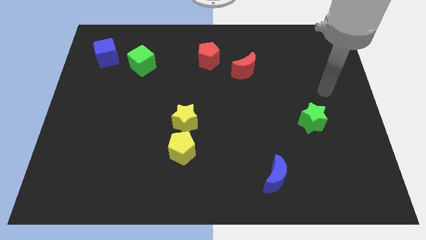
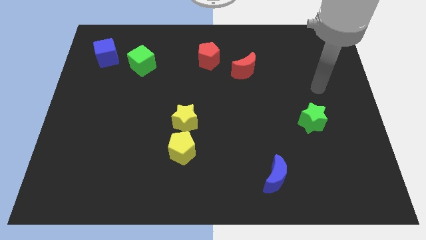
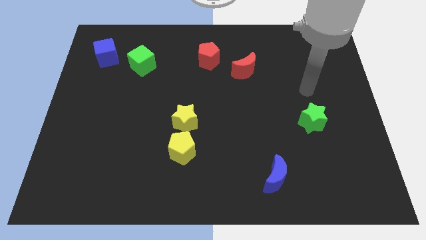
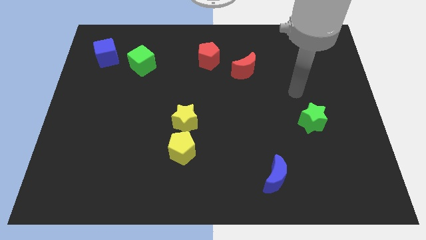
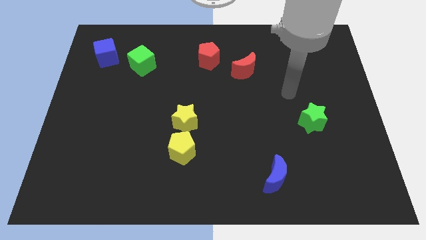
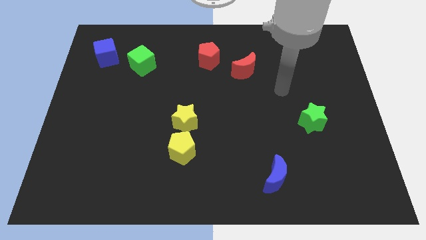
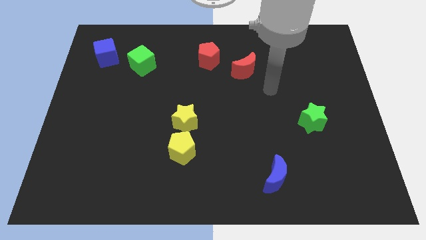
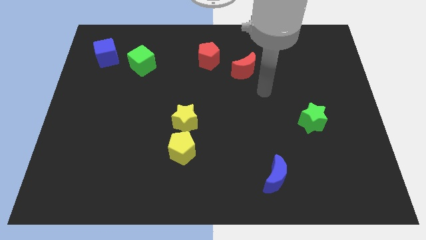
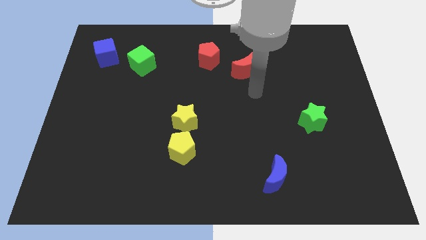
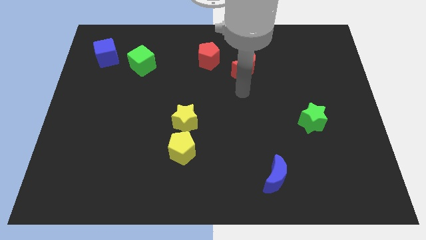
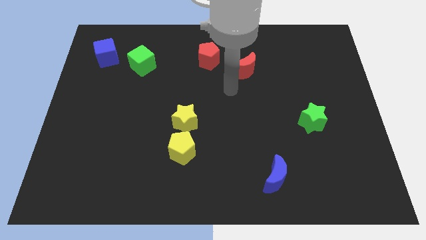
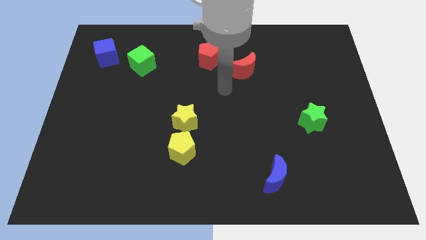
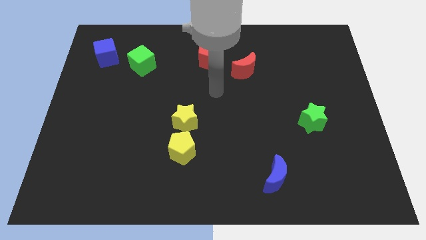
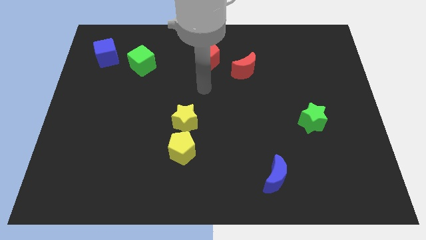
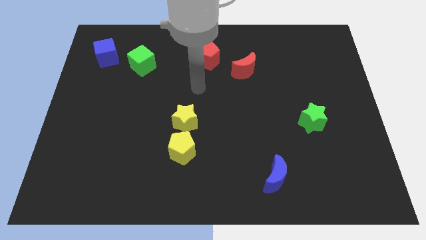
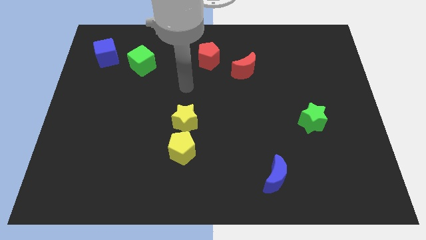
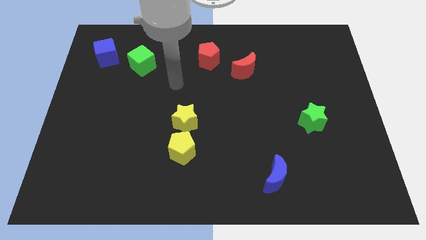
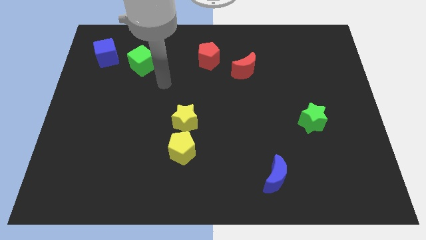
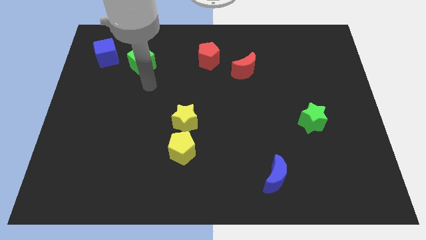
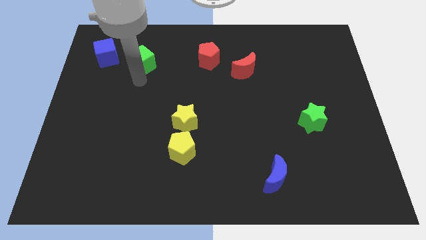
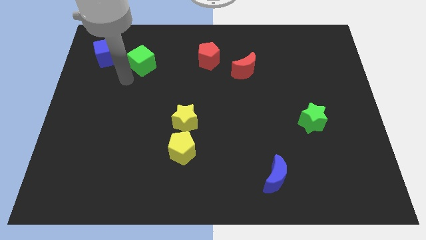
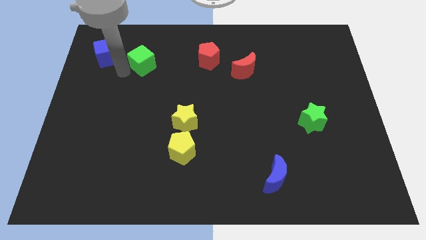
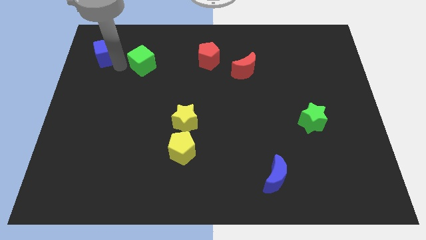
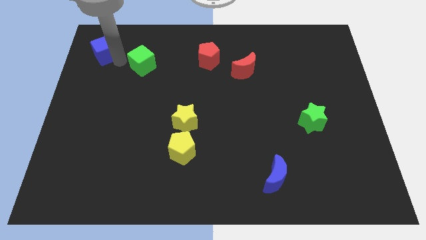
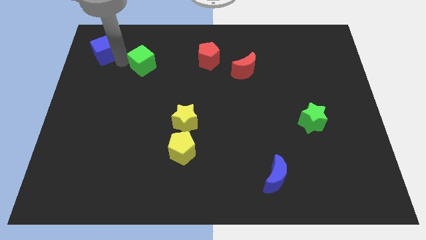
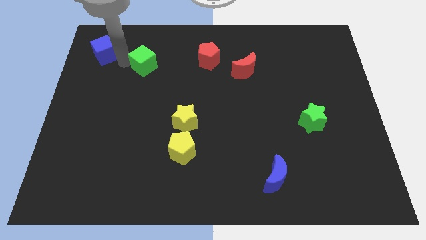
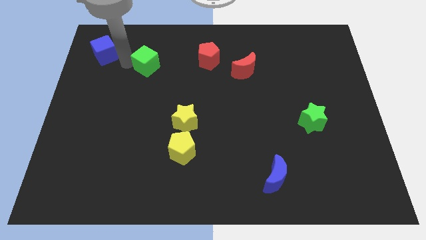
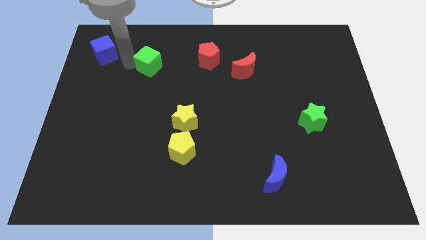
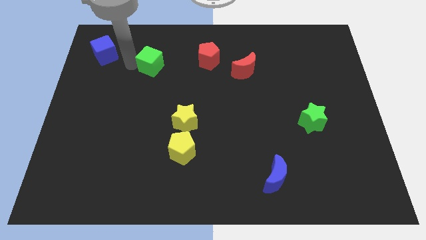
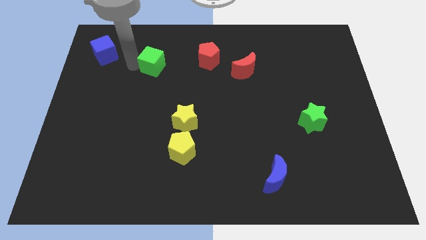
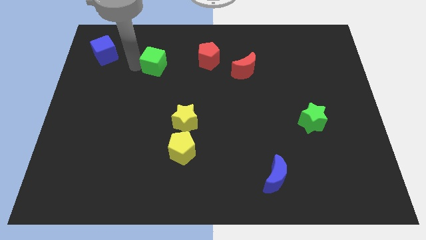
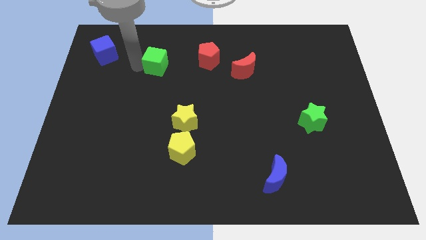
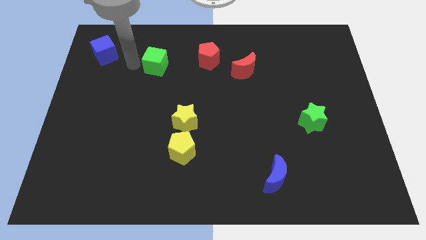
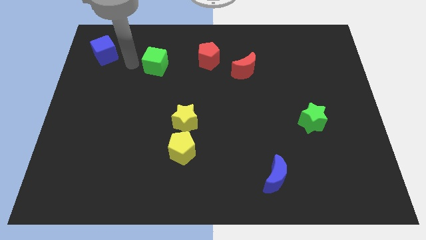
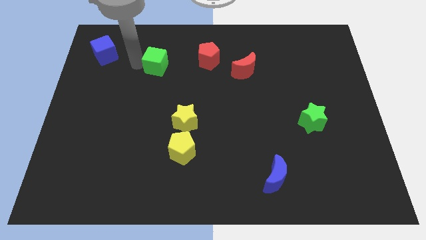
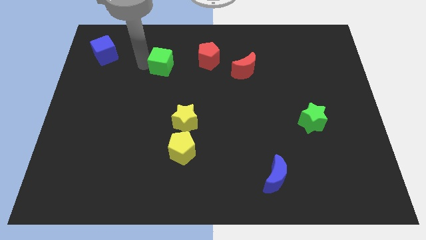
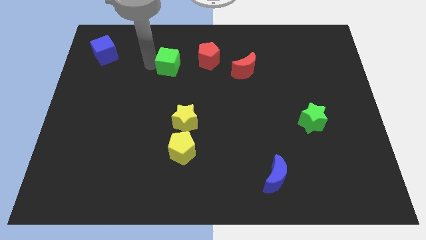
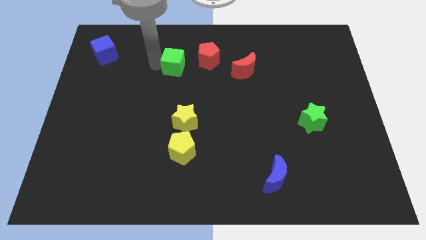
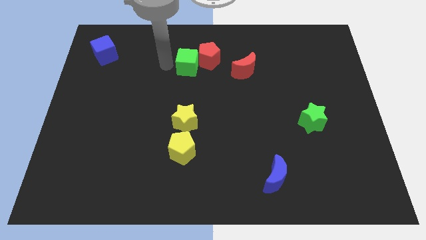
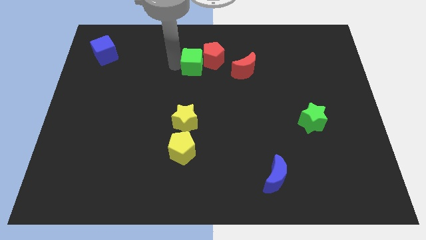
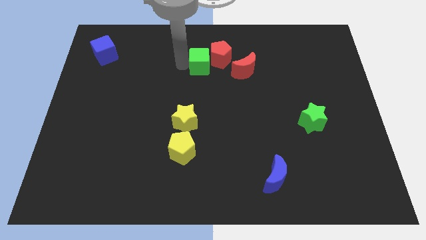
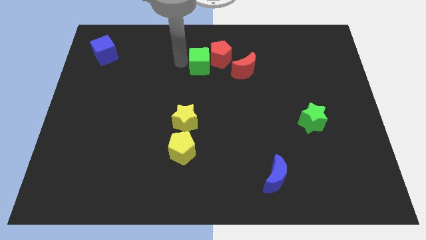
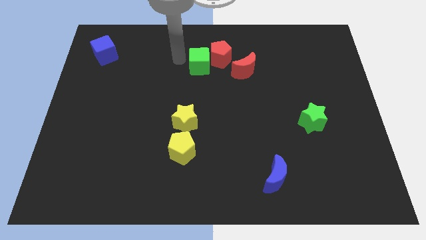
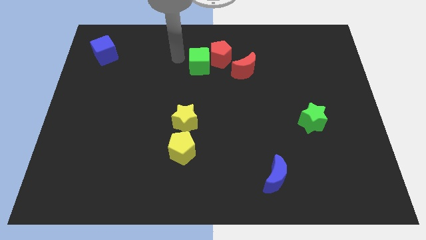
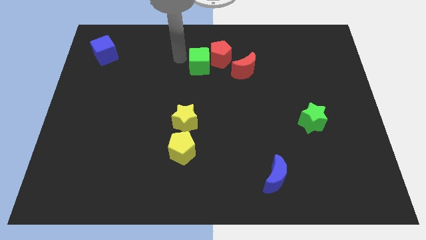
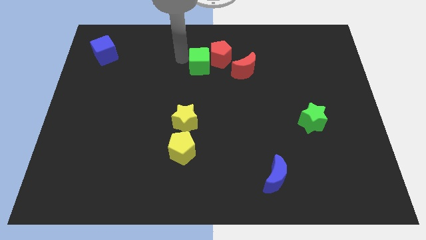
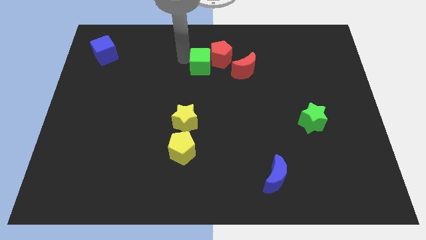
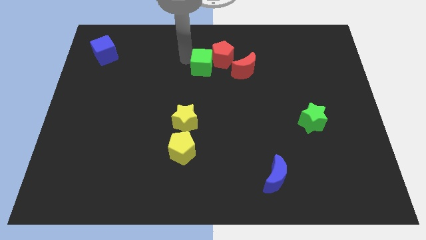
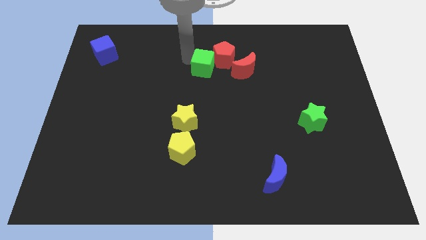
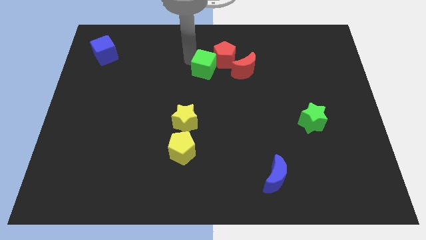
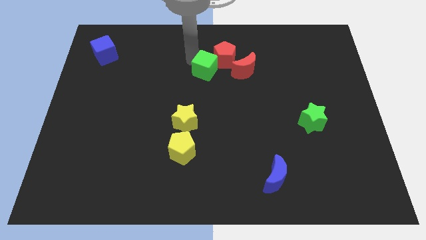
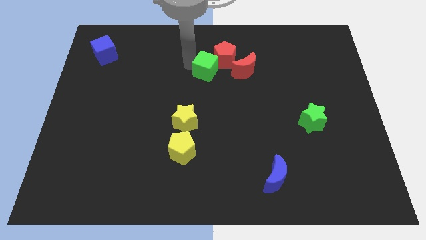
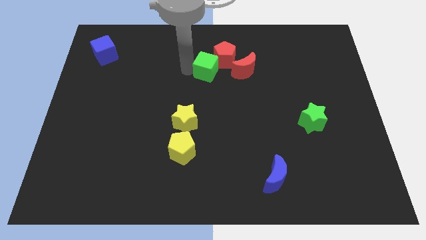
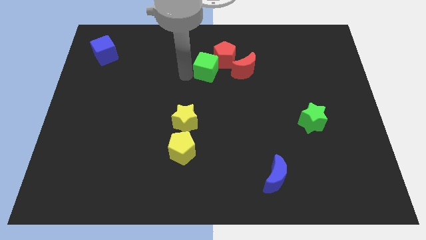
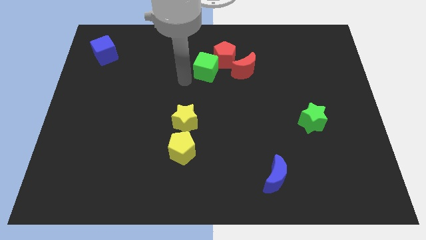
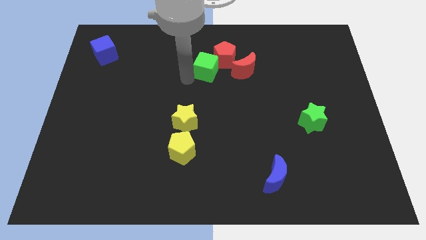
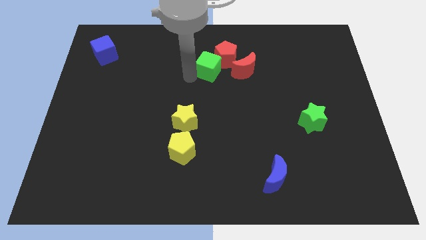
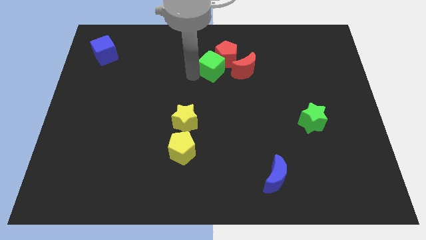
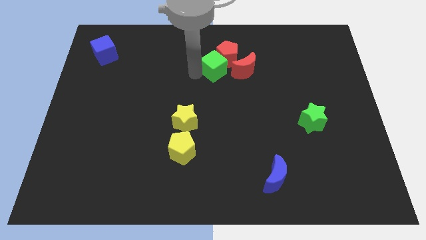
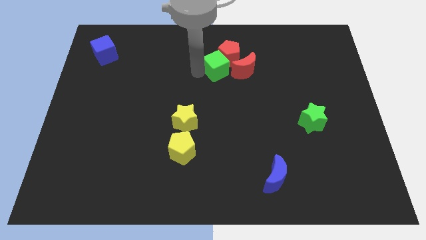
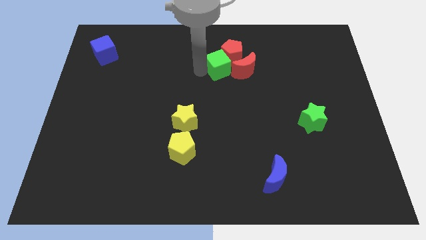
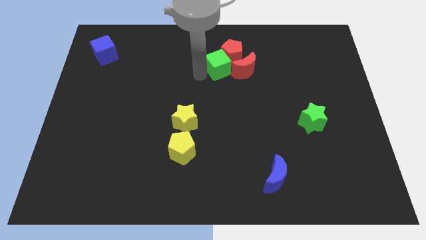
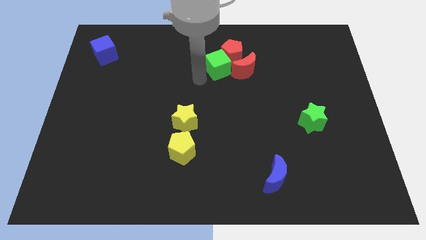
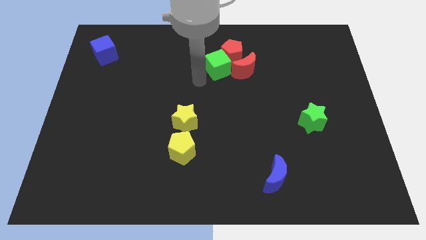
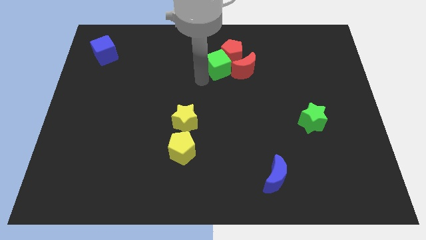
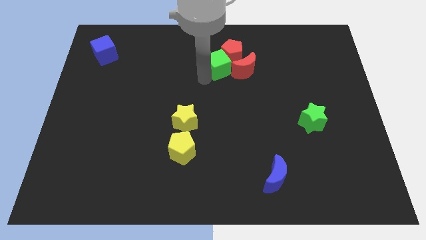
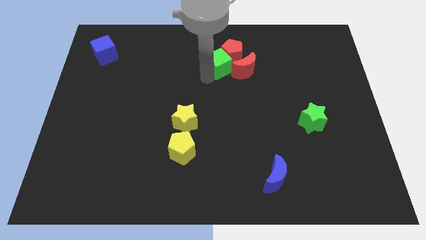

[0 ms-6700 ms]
push the green cube right

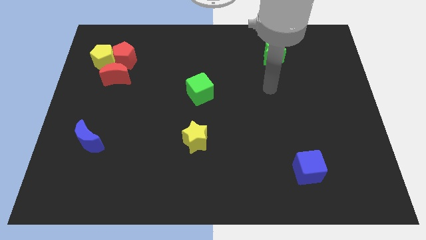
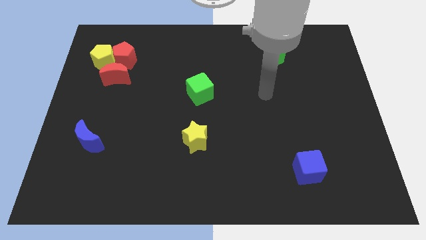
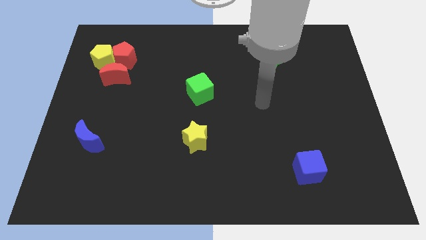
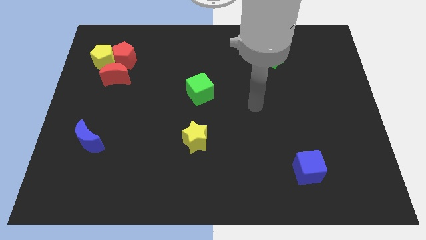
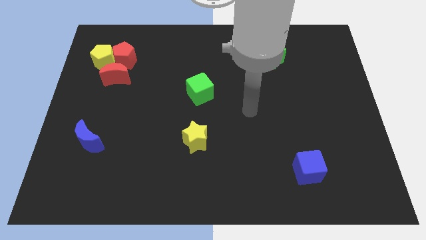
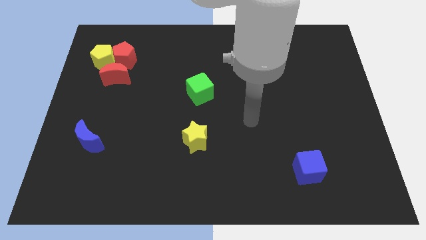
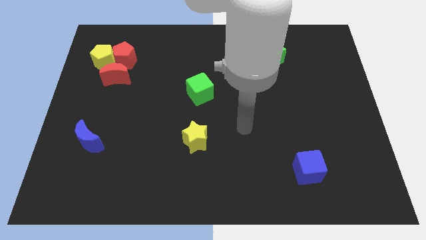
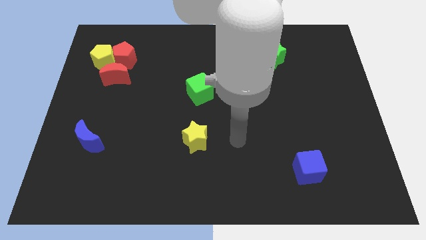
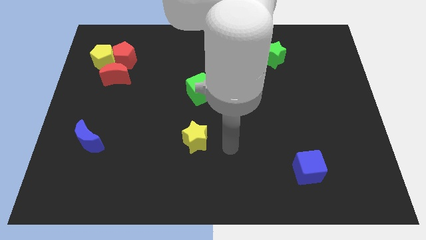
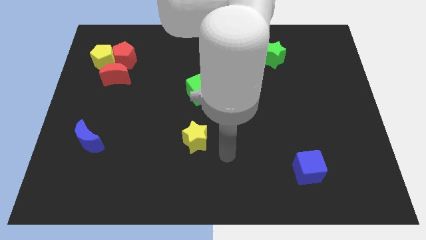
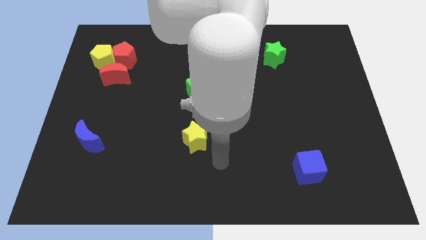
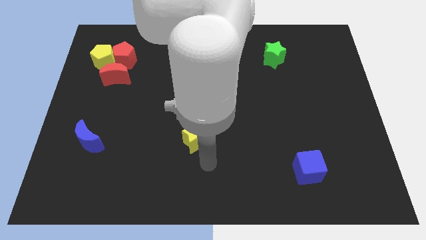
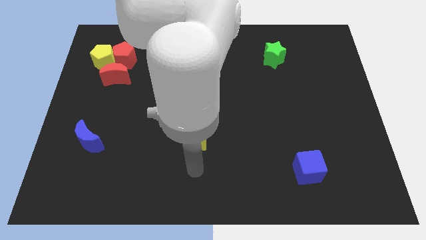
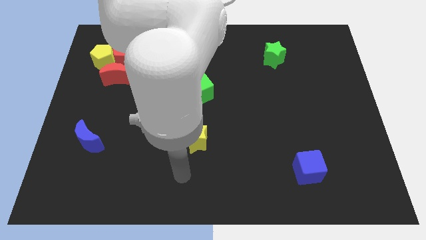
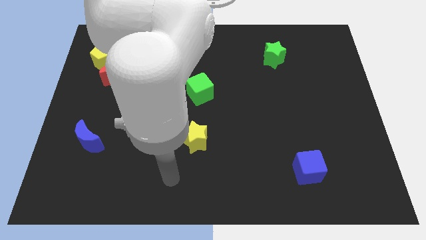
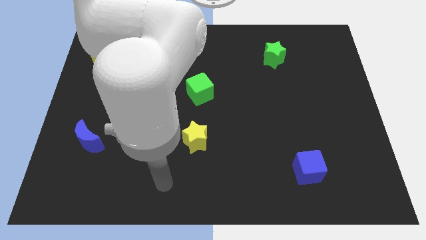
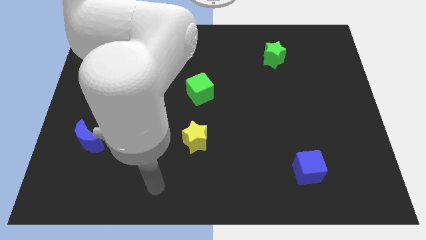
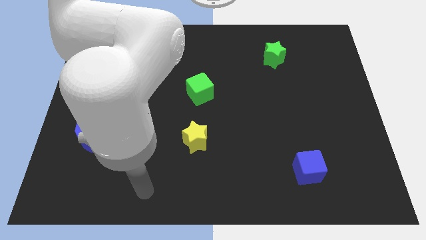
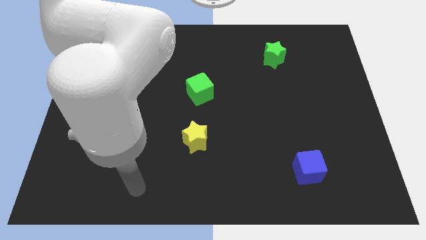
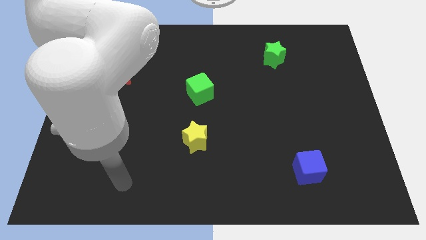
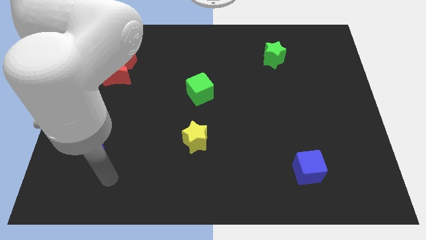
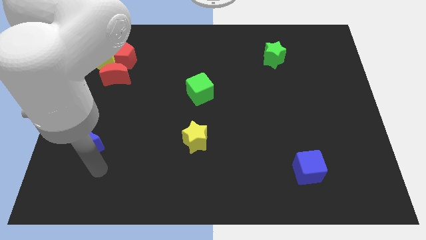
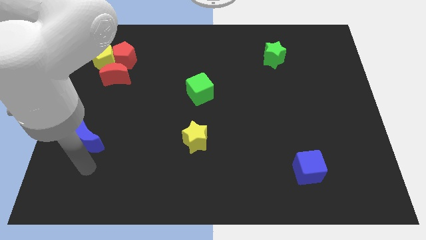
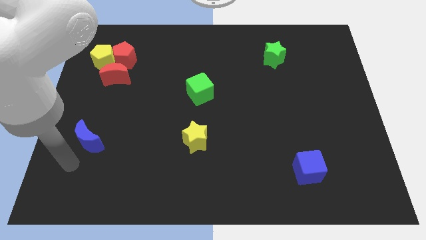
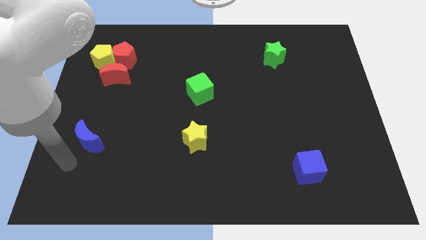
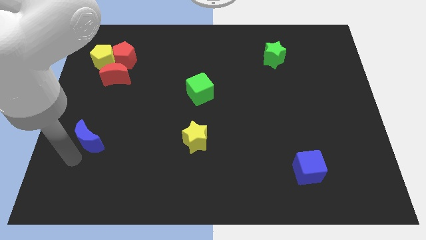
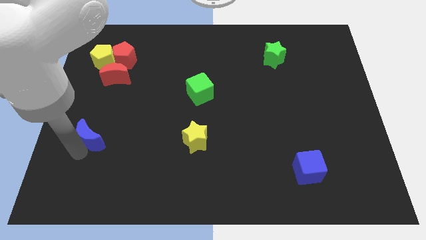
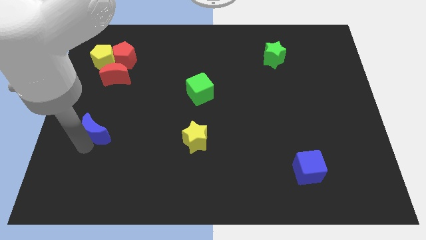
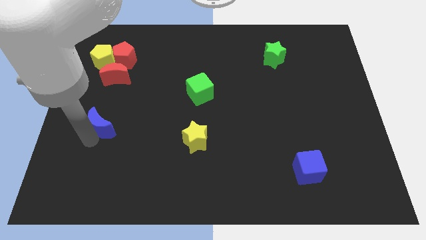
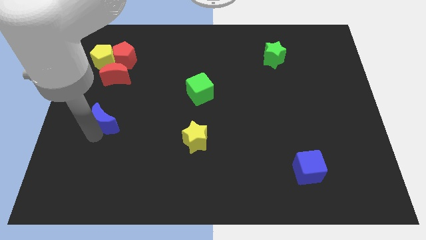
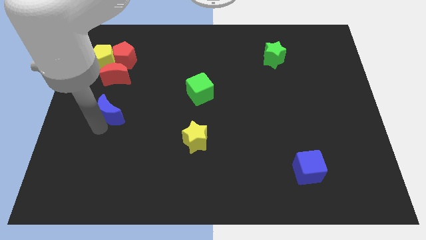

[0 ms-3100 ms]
slide the blue moon up and to the right diagonally slightly
